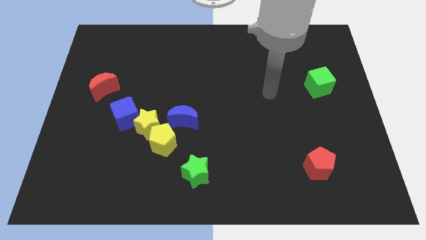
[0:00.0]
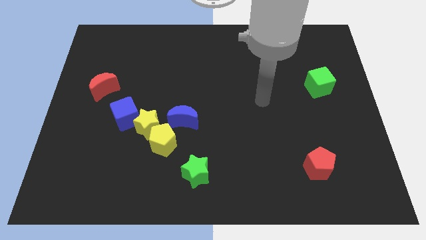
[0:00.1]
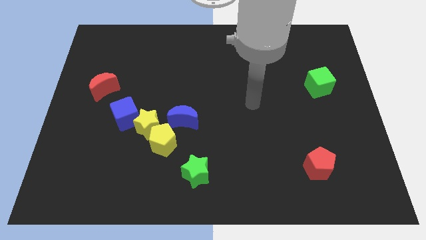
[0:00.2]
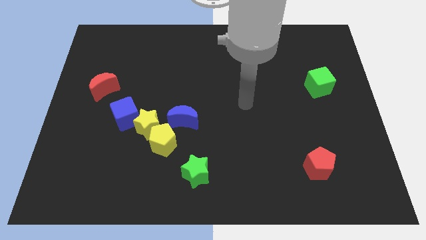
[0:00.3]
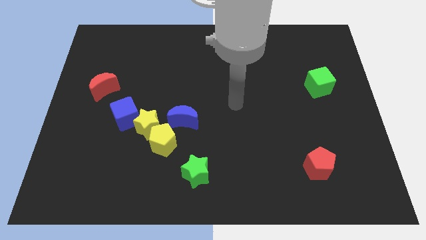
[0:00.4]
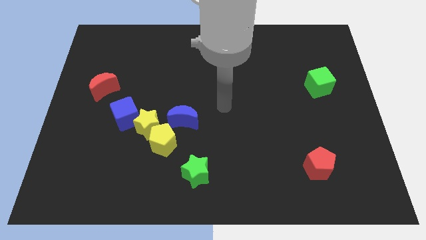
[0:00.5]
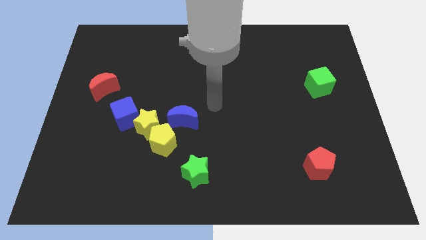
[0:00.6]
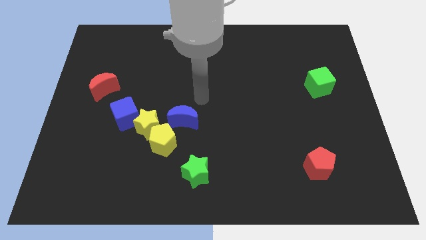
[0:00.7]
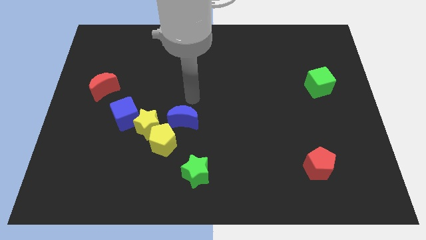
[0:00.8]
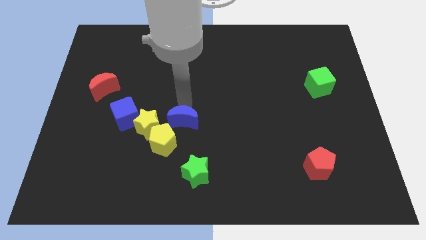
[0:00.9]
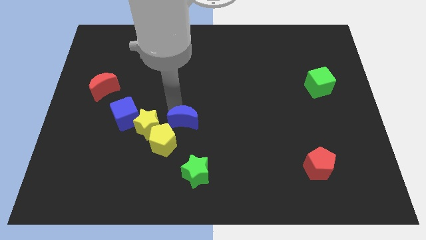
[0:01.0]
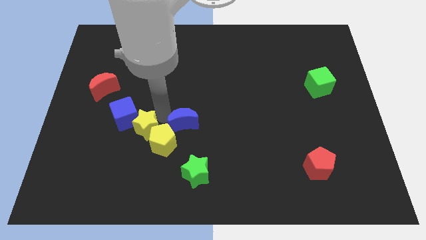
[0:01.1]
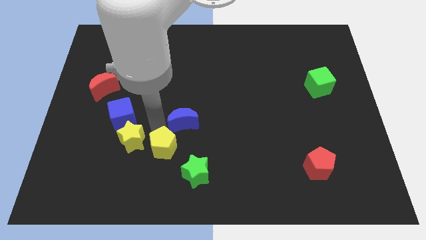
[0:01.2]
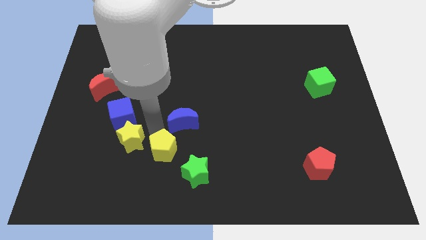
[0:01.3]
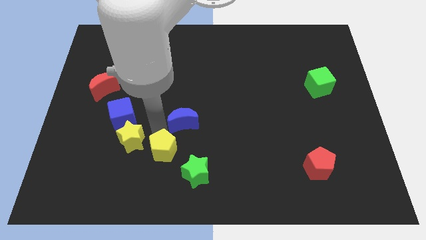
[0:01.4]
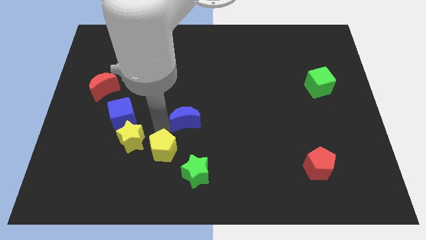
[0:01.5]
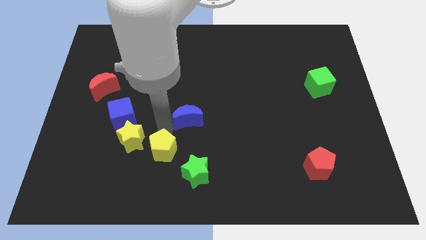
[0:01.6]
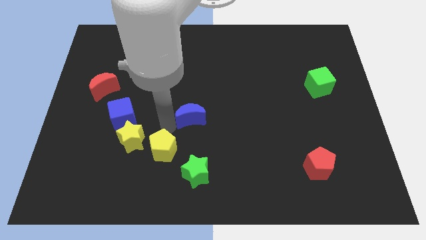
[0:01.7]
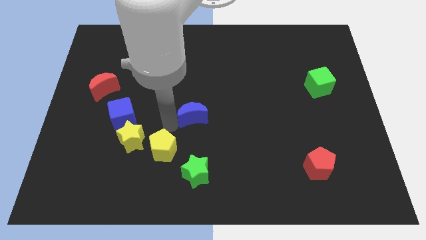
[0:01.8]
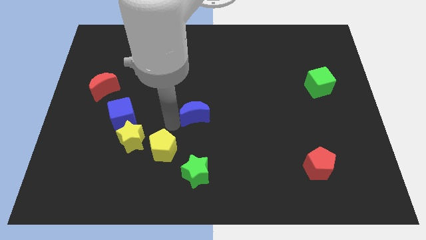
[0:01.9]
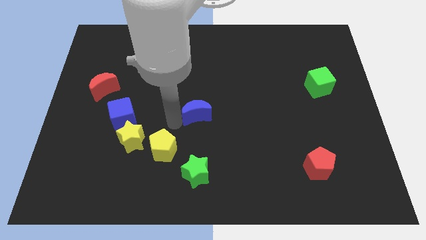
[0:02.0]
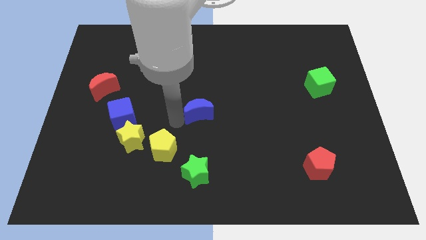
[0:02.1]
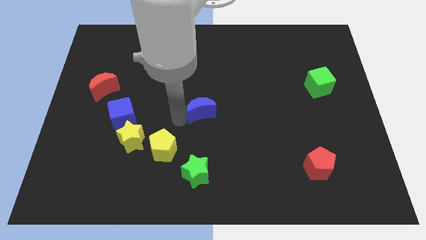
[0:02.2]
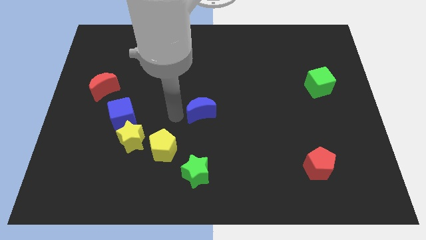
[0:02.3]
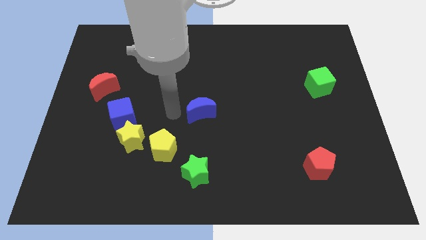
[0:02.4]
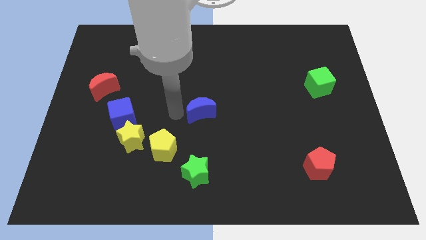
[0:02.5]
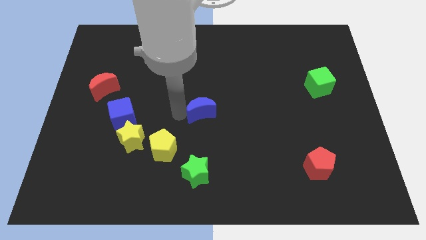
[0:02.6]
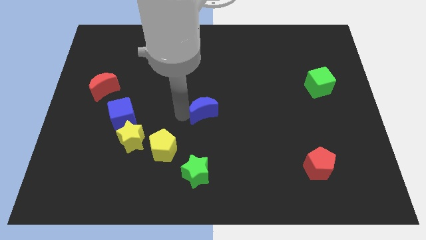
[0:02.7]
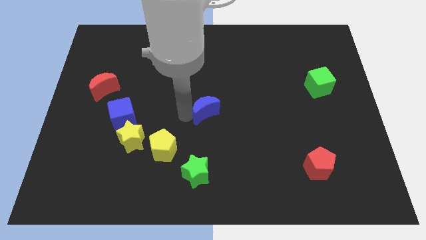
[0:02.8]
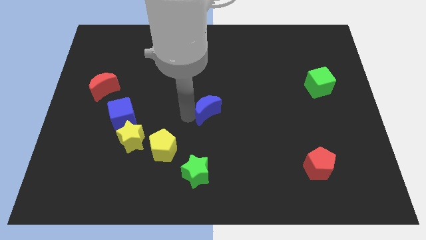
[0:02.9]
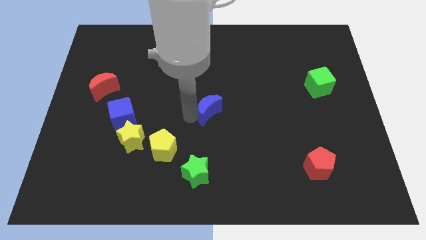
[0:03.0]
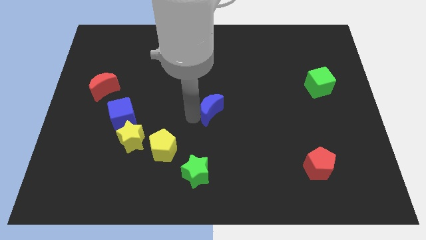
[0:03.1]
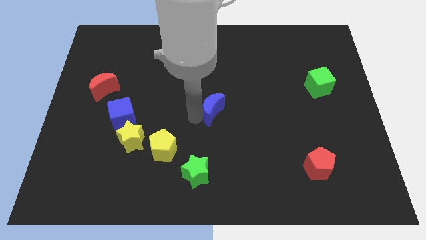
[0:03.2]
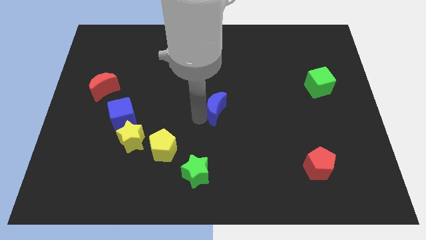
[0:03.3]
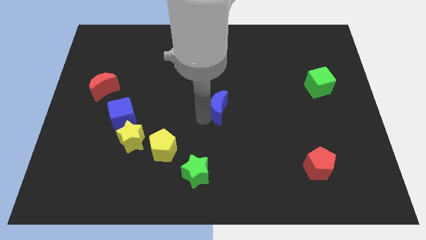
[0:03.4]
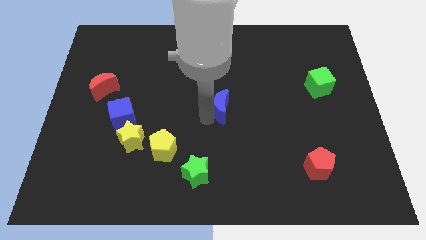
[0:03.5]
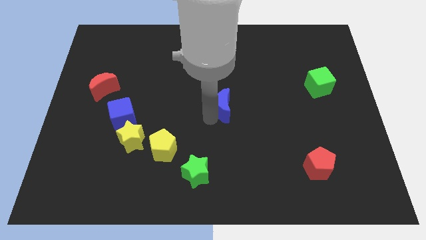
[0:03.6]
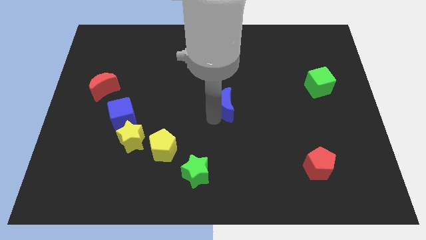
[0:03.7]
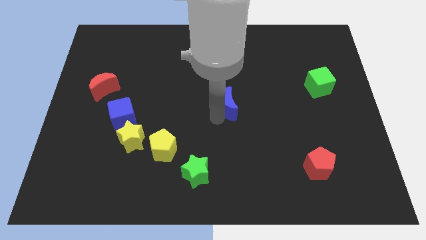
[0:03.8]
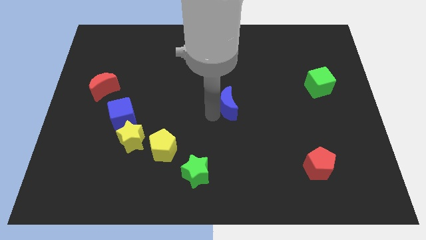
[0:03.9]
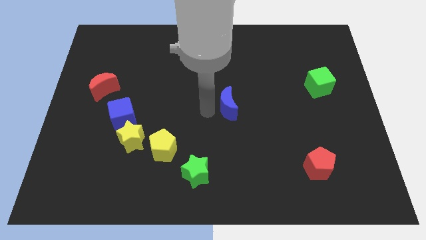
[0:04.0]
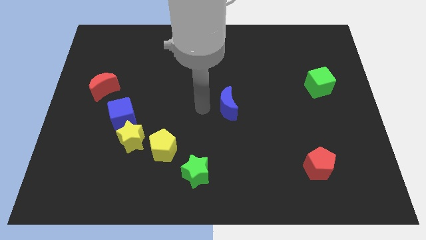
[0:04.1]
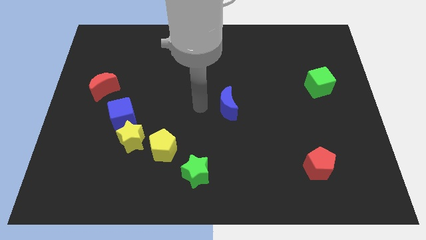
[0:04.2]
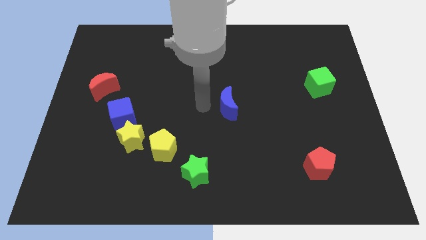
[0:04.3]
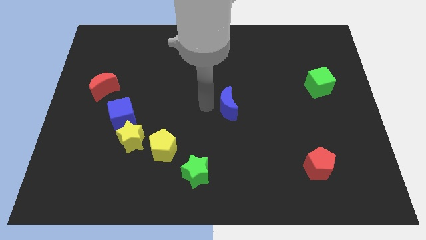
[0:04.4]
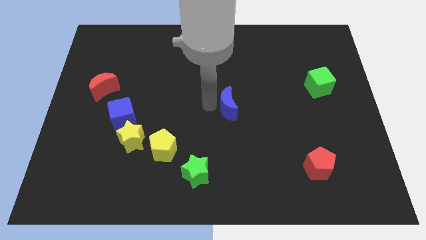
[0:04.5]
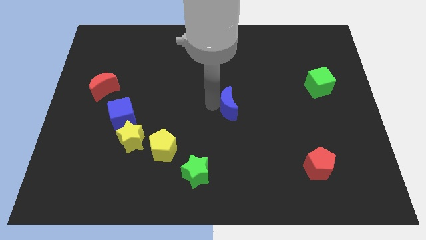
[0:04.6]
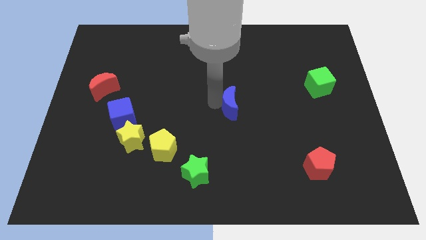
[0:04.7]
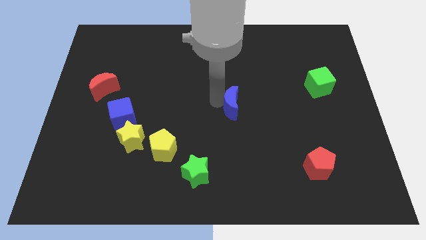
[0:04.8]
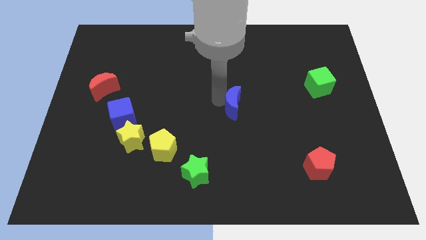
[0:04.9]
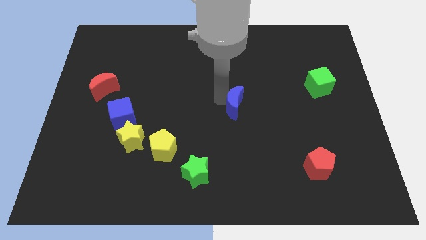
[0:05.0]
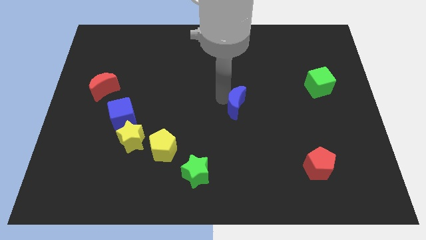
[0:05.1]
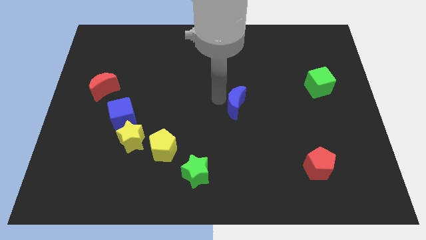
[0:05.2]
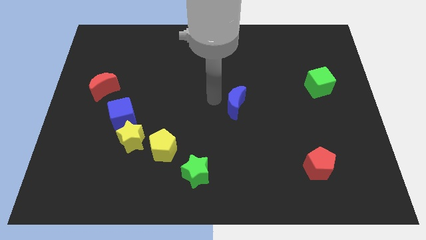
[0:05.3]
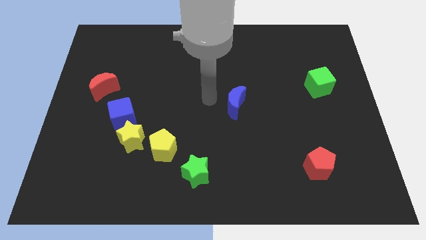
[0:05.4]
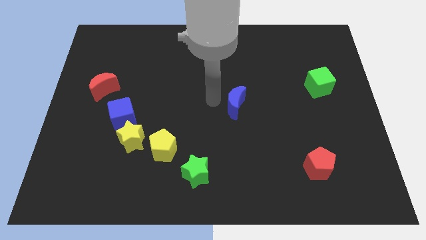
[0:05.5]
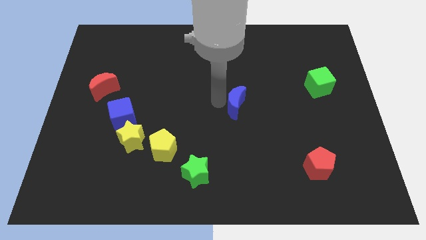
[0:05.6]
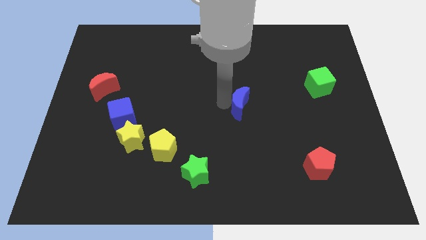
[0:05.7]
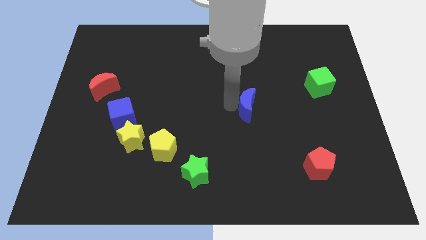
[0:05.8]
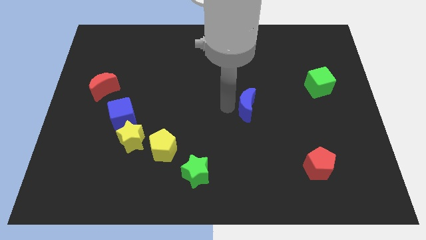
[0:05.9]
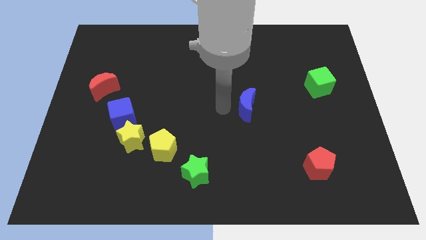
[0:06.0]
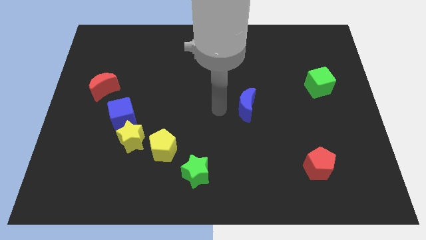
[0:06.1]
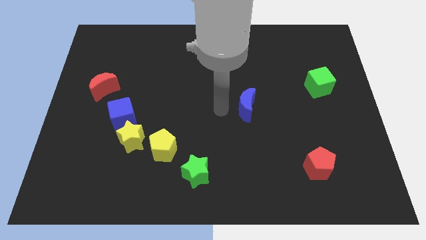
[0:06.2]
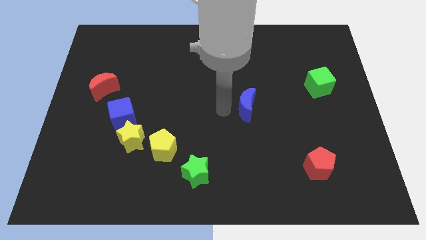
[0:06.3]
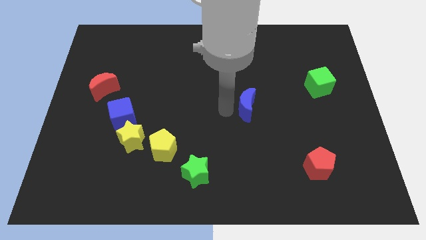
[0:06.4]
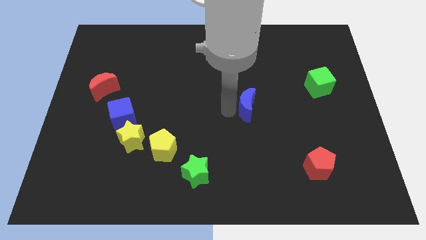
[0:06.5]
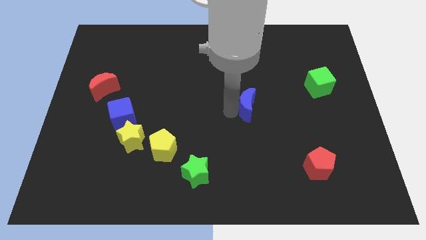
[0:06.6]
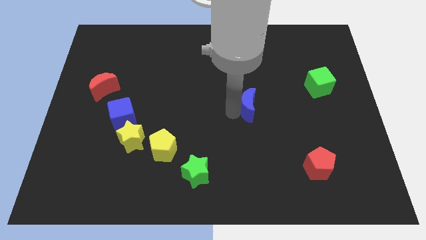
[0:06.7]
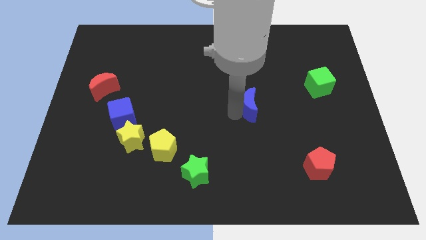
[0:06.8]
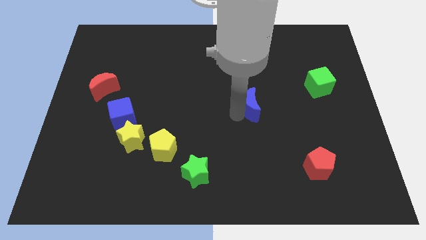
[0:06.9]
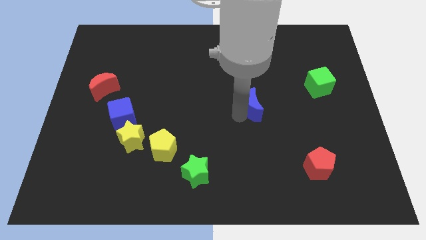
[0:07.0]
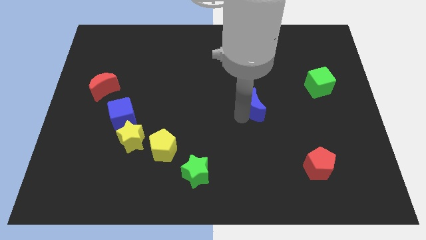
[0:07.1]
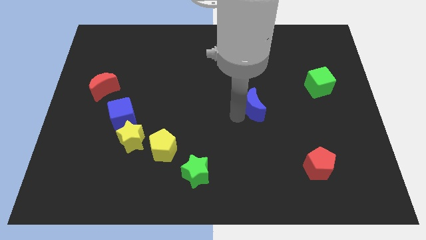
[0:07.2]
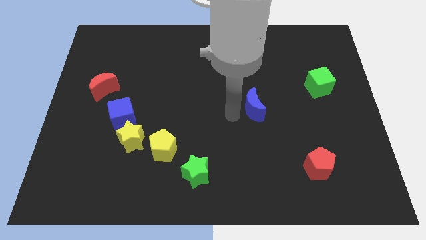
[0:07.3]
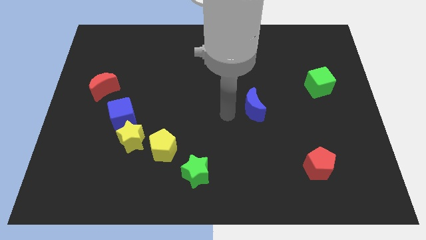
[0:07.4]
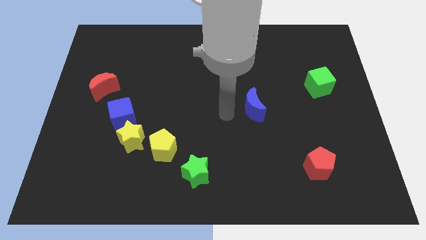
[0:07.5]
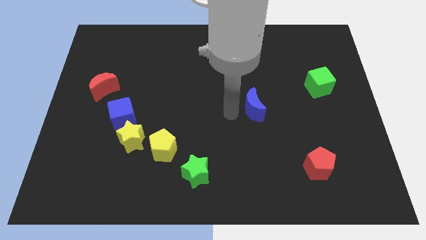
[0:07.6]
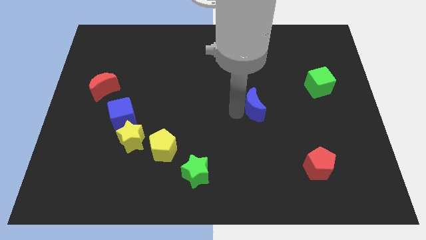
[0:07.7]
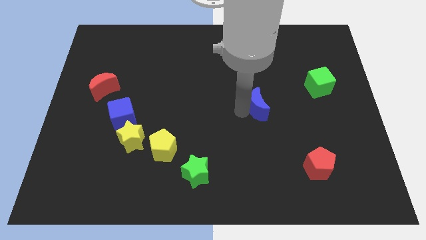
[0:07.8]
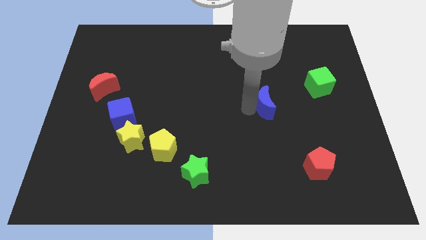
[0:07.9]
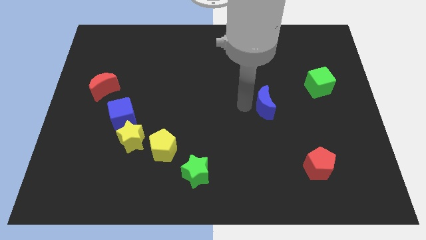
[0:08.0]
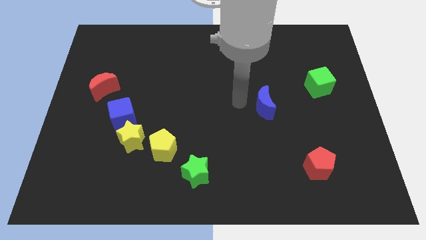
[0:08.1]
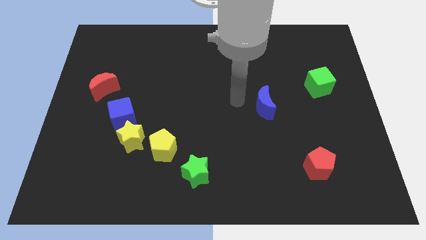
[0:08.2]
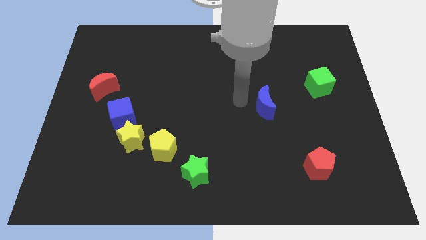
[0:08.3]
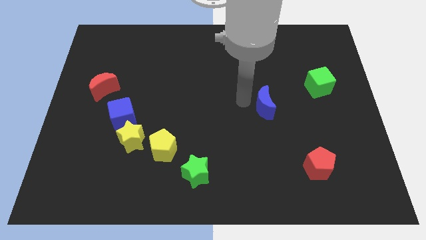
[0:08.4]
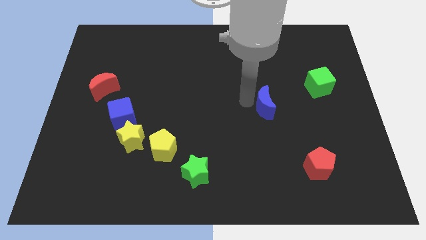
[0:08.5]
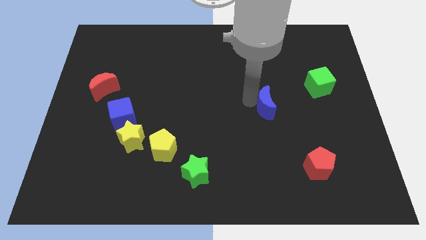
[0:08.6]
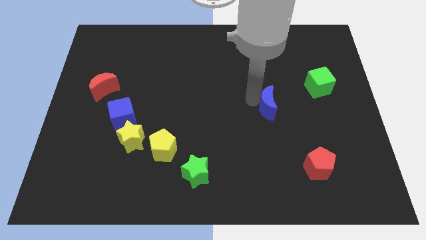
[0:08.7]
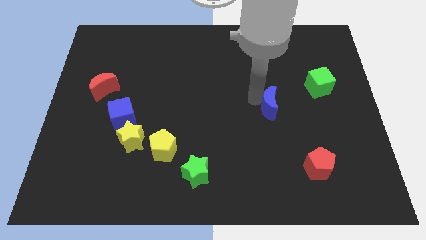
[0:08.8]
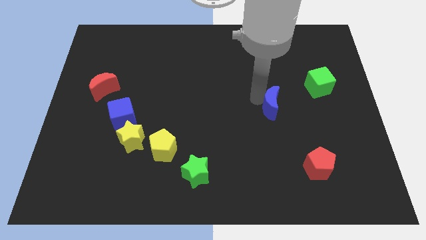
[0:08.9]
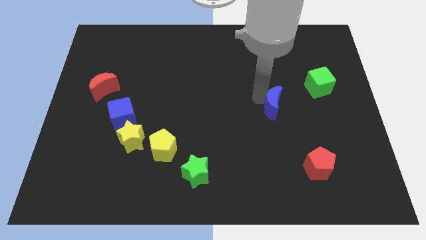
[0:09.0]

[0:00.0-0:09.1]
push the blue moon right
